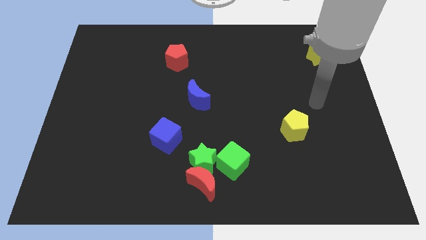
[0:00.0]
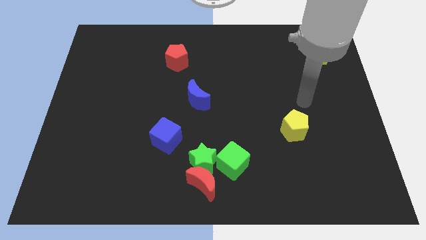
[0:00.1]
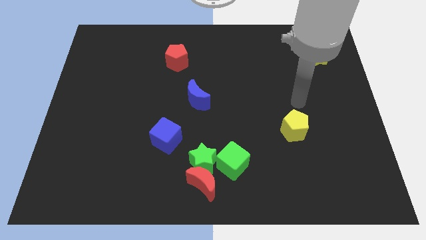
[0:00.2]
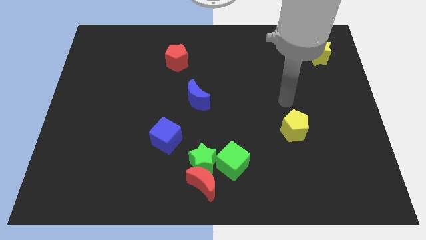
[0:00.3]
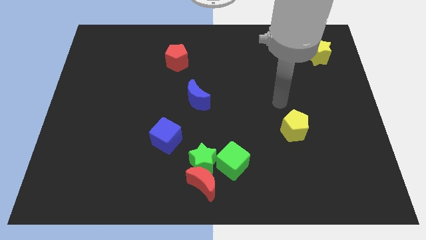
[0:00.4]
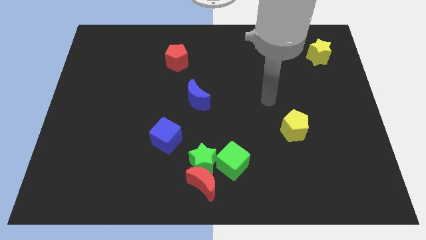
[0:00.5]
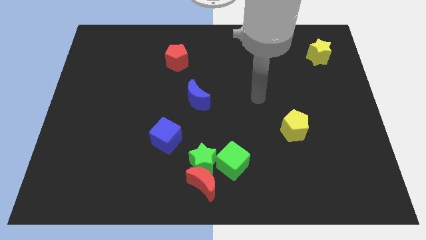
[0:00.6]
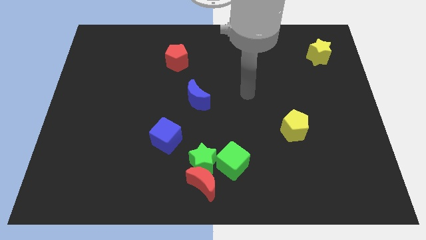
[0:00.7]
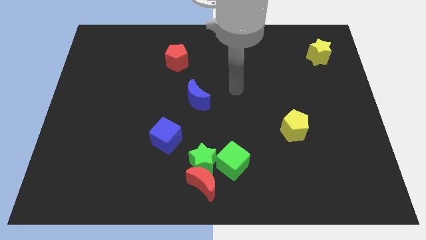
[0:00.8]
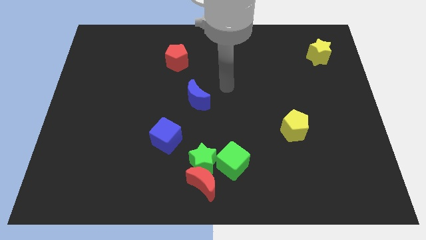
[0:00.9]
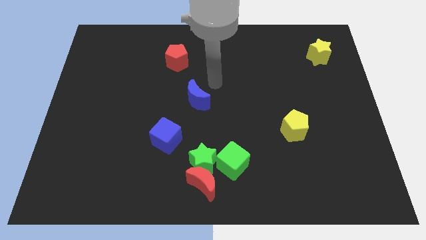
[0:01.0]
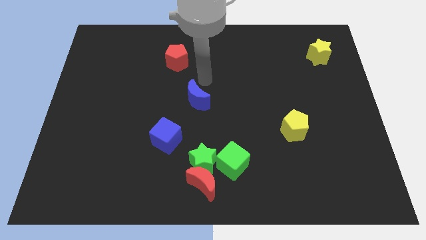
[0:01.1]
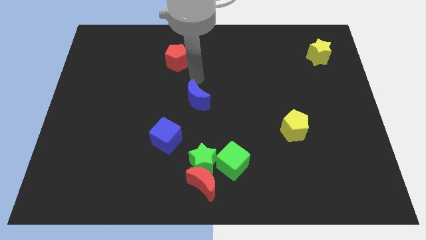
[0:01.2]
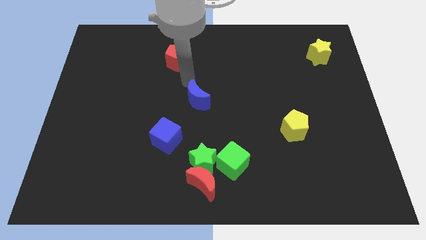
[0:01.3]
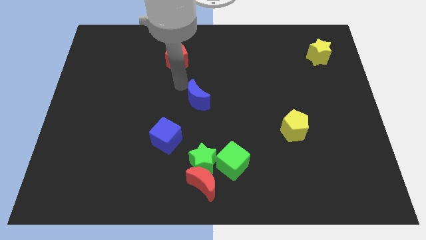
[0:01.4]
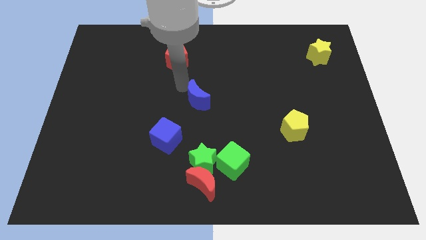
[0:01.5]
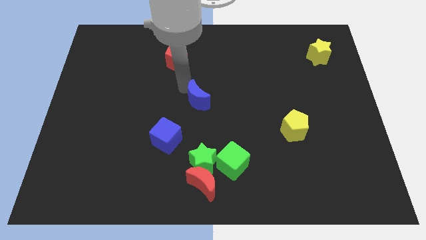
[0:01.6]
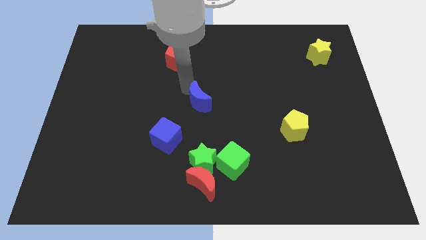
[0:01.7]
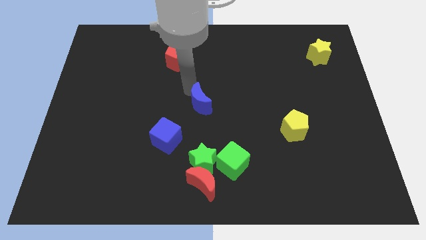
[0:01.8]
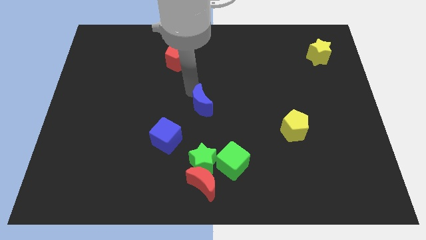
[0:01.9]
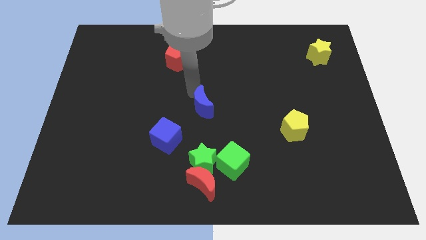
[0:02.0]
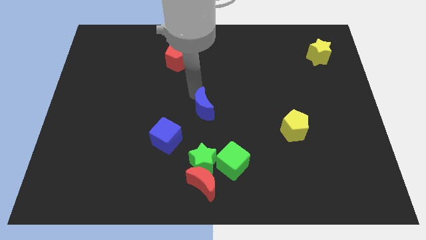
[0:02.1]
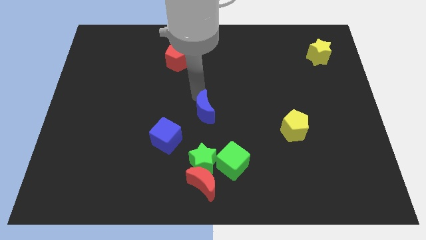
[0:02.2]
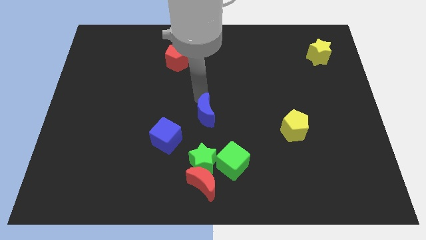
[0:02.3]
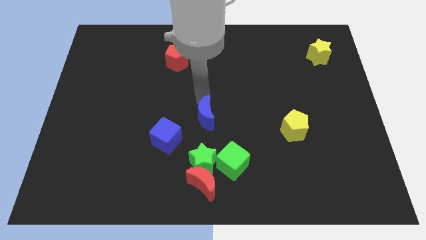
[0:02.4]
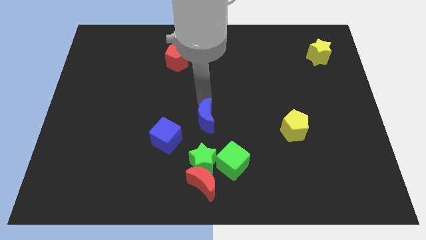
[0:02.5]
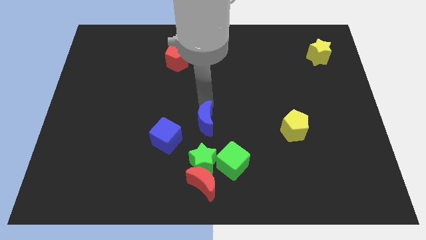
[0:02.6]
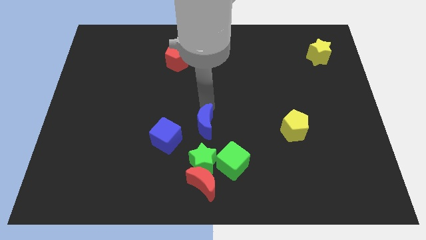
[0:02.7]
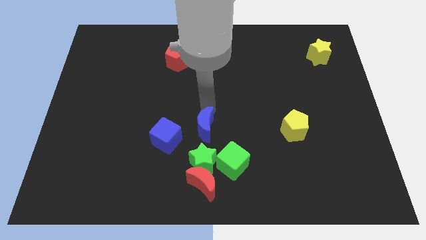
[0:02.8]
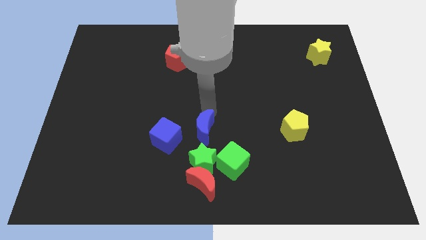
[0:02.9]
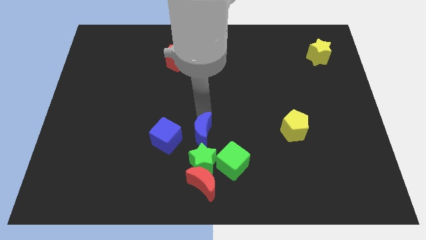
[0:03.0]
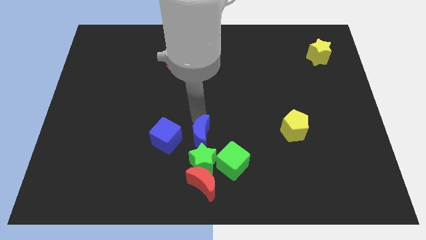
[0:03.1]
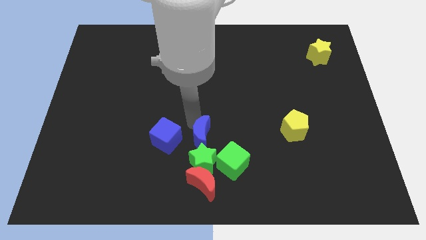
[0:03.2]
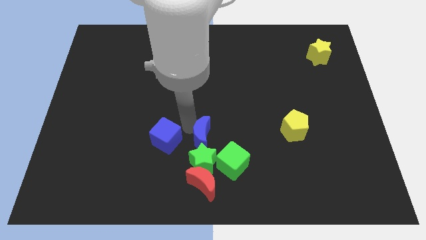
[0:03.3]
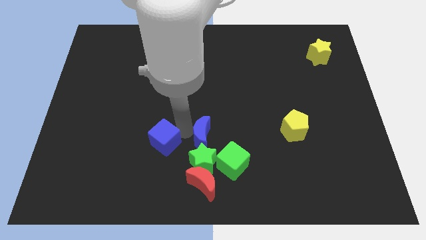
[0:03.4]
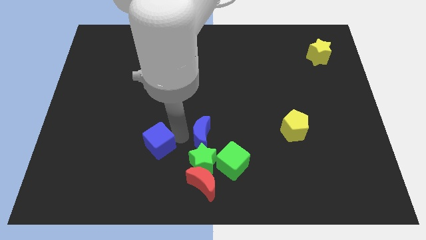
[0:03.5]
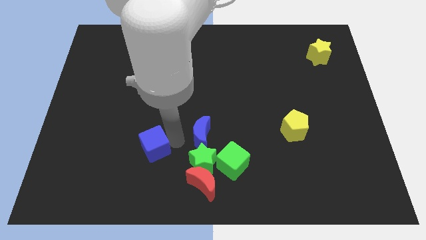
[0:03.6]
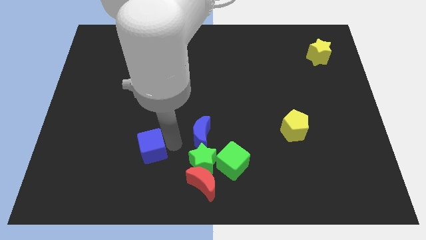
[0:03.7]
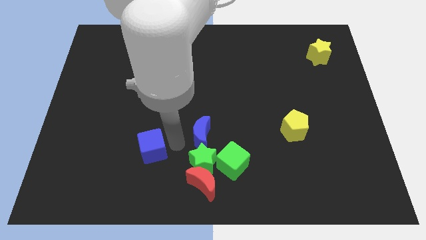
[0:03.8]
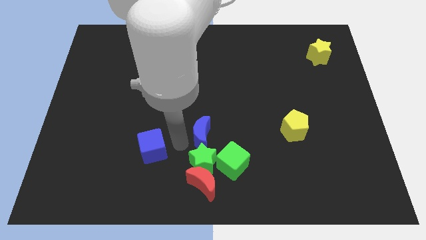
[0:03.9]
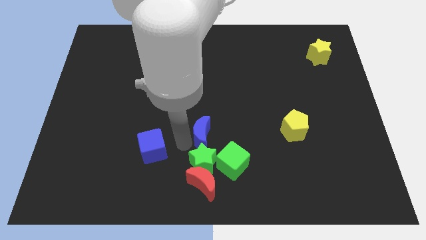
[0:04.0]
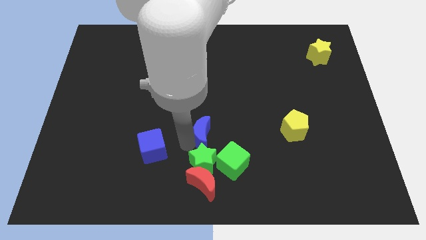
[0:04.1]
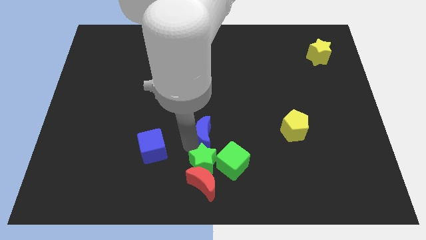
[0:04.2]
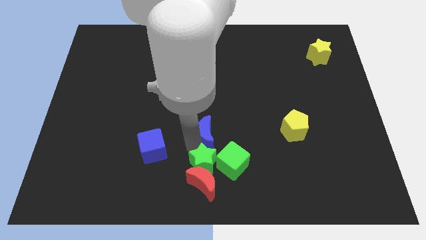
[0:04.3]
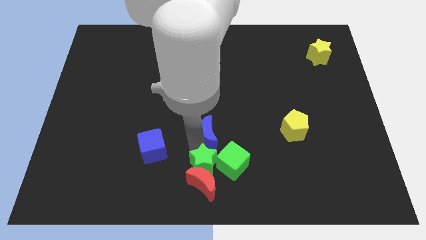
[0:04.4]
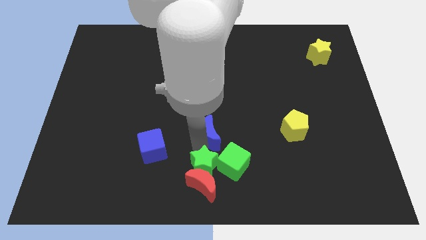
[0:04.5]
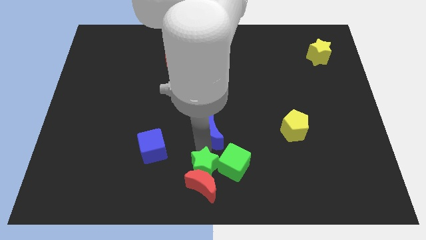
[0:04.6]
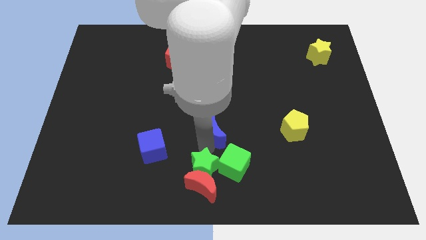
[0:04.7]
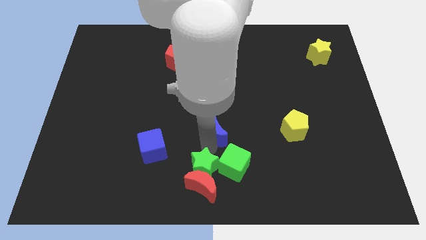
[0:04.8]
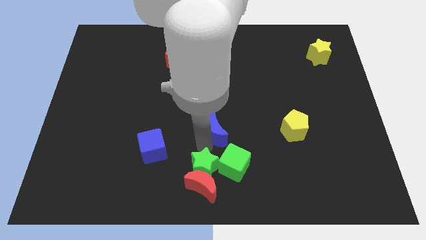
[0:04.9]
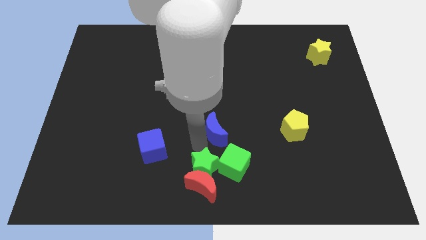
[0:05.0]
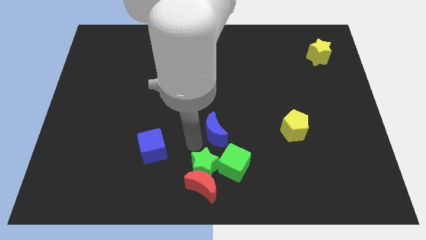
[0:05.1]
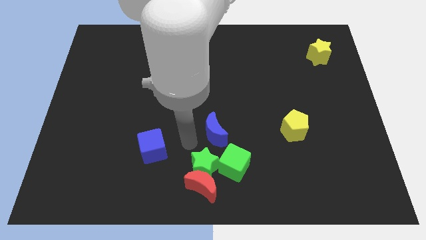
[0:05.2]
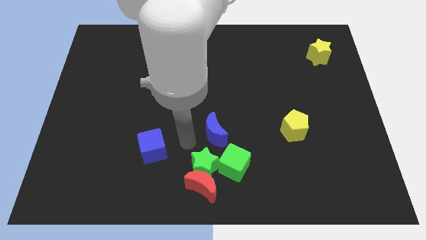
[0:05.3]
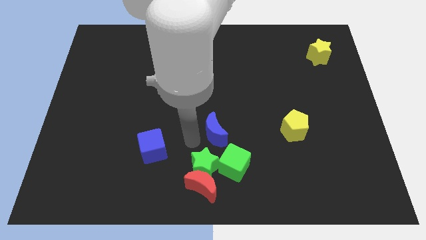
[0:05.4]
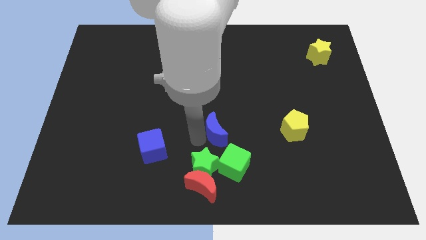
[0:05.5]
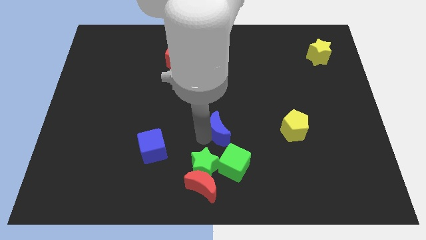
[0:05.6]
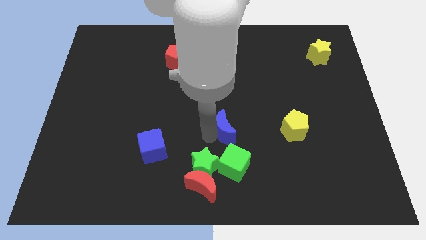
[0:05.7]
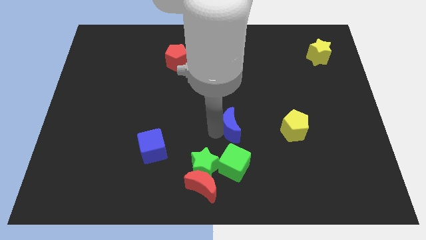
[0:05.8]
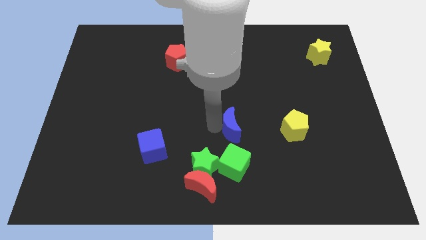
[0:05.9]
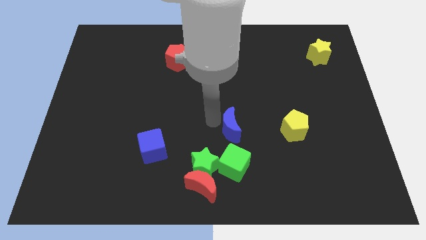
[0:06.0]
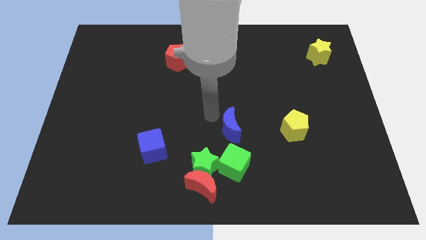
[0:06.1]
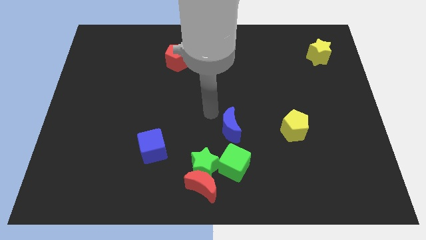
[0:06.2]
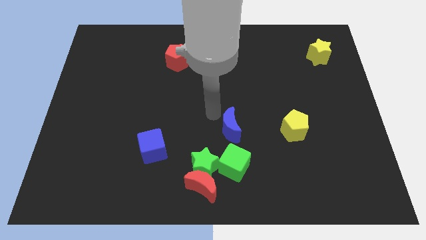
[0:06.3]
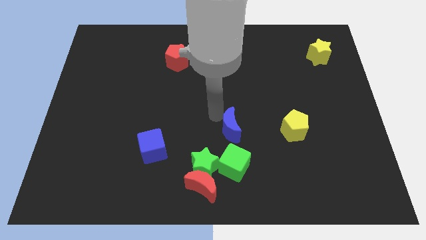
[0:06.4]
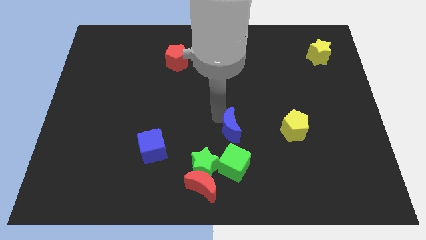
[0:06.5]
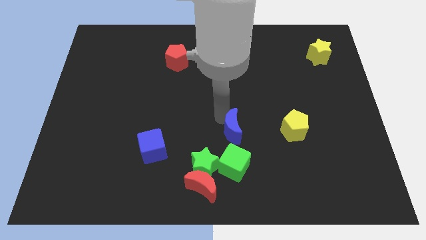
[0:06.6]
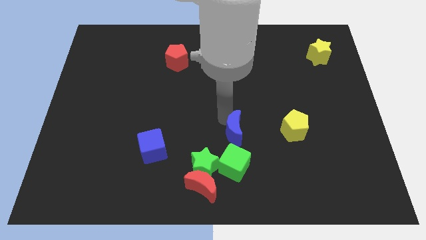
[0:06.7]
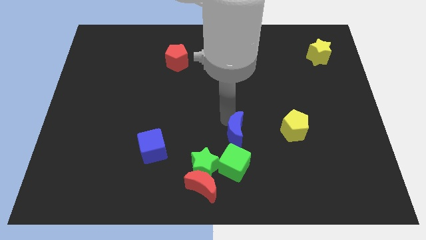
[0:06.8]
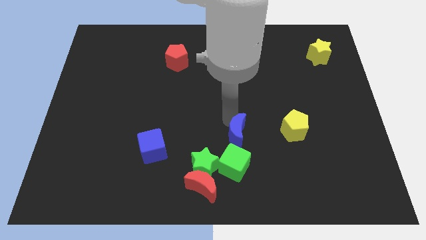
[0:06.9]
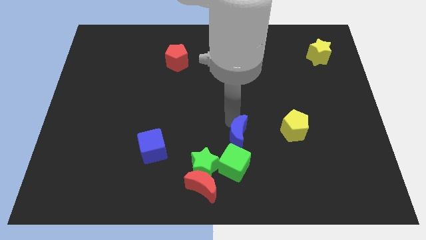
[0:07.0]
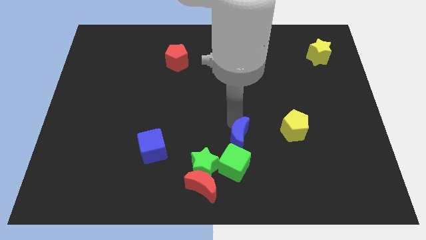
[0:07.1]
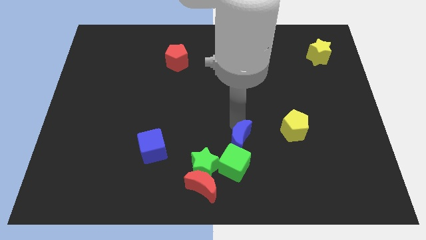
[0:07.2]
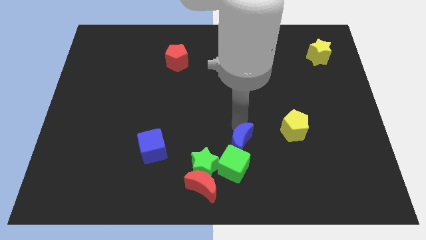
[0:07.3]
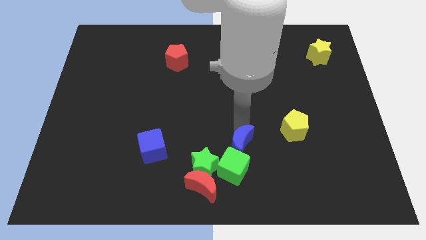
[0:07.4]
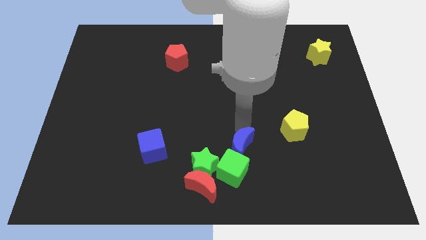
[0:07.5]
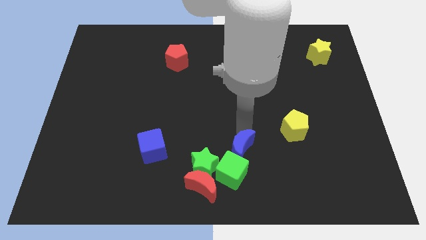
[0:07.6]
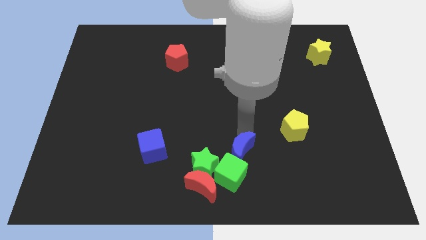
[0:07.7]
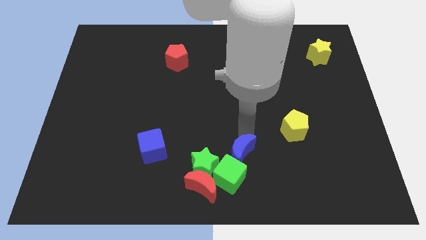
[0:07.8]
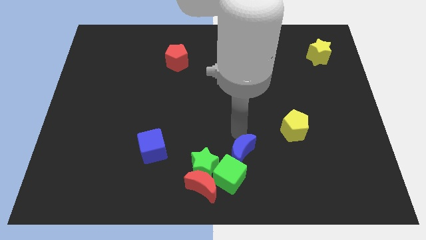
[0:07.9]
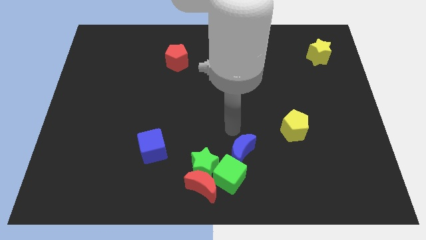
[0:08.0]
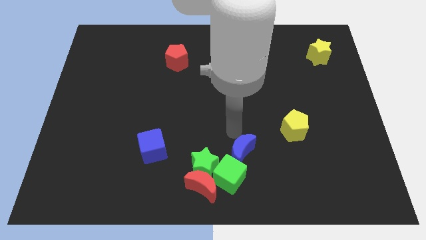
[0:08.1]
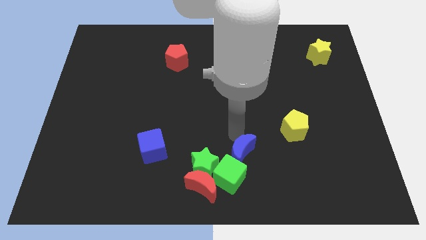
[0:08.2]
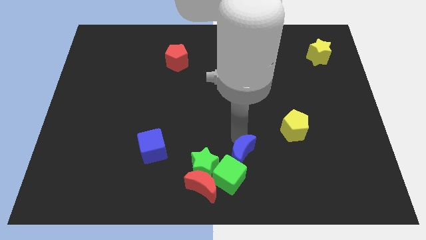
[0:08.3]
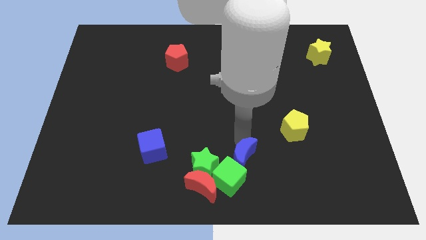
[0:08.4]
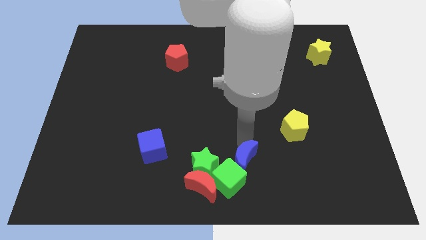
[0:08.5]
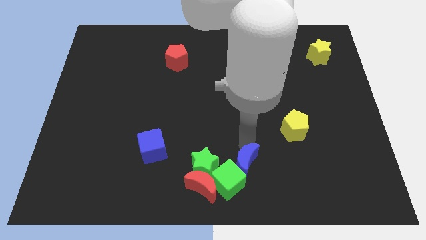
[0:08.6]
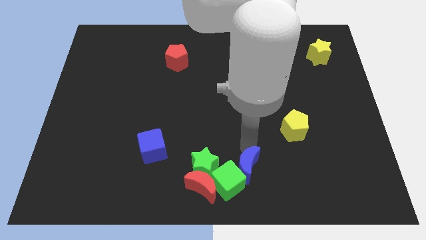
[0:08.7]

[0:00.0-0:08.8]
slide the blue moon just right of the red moon
